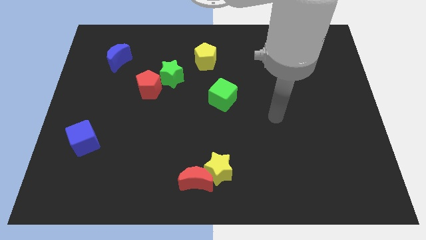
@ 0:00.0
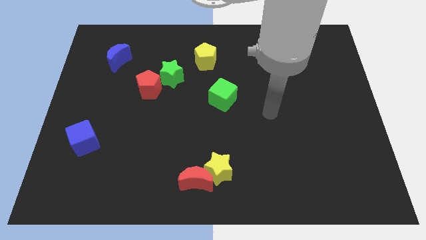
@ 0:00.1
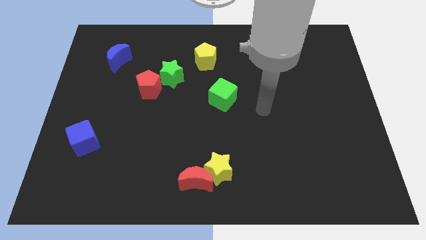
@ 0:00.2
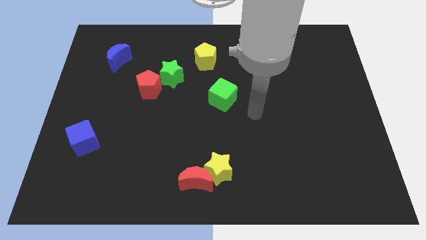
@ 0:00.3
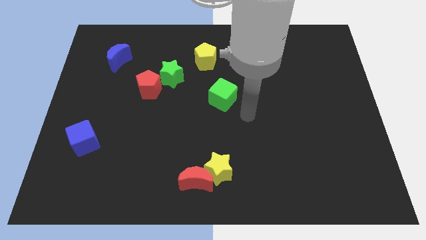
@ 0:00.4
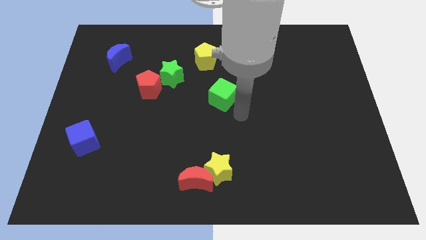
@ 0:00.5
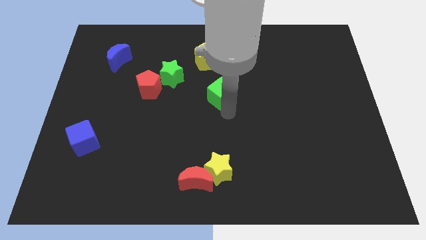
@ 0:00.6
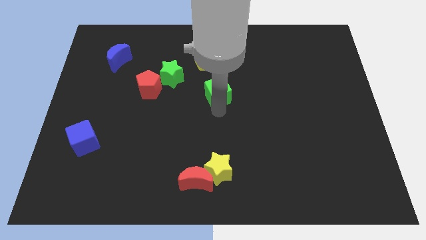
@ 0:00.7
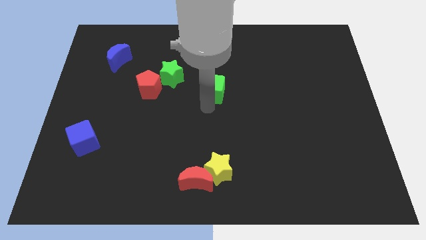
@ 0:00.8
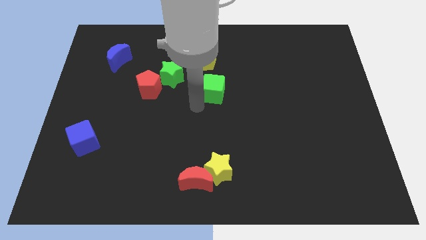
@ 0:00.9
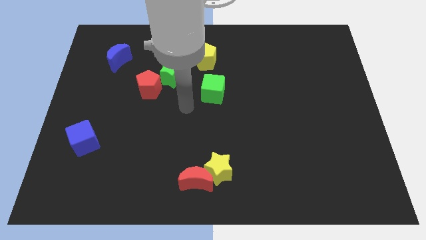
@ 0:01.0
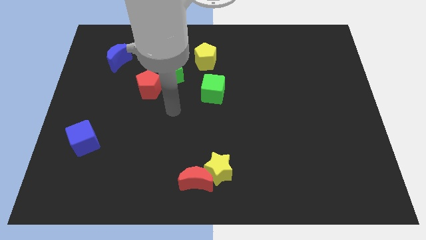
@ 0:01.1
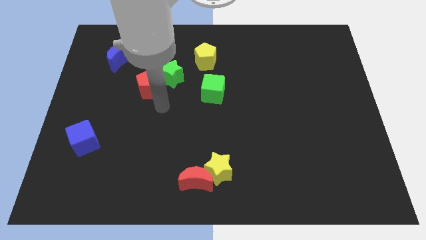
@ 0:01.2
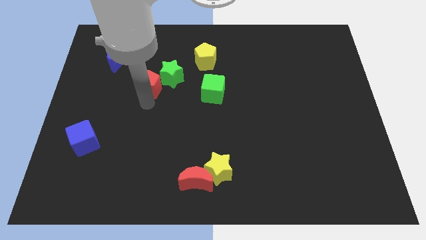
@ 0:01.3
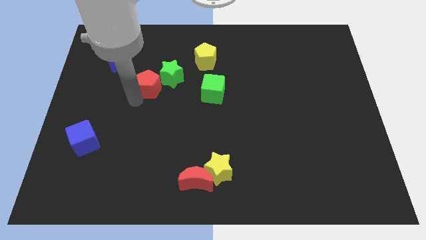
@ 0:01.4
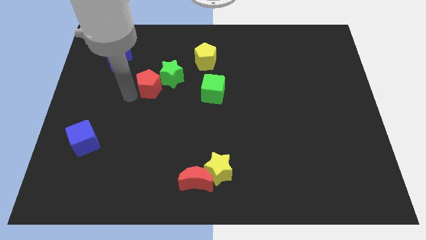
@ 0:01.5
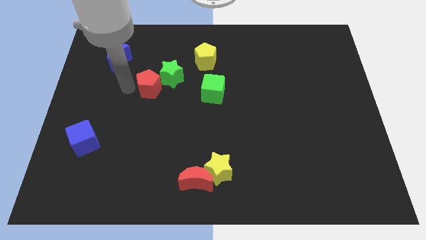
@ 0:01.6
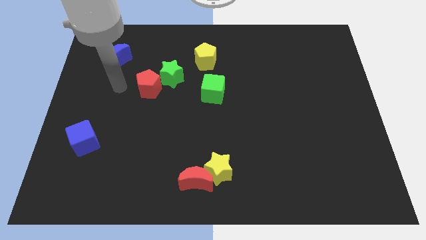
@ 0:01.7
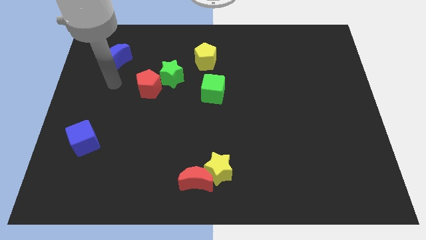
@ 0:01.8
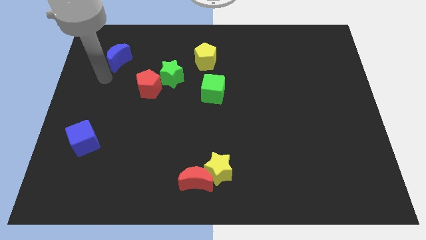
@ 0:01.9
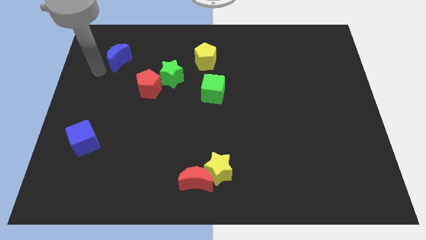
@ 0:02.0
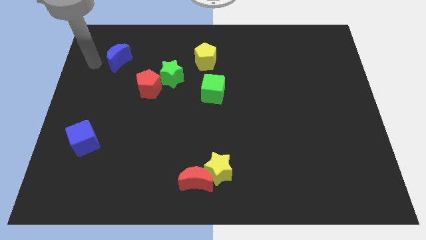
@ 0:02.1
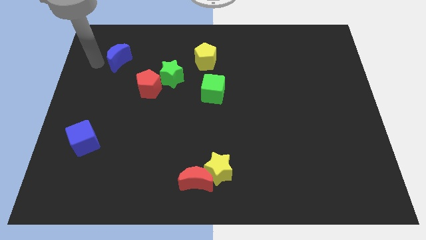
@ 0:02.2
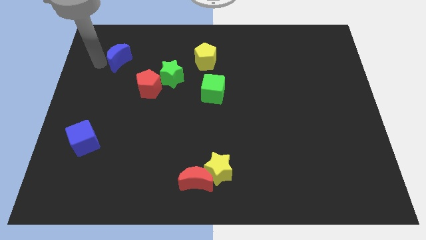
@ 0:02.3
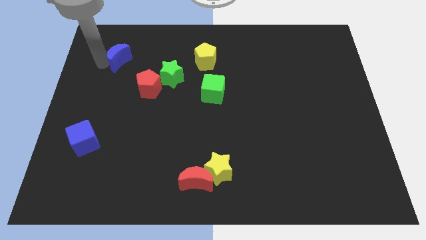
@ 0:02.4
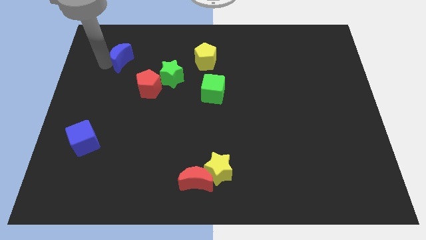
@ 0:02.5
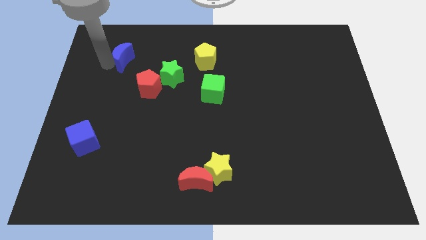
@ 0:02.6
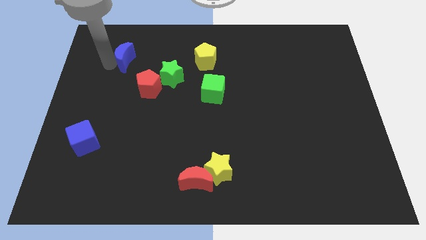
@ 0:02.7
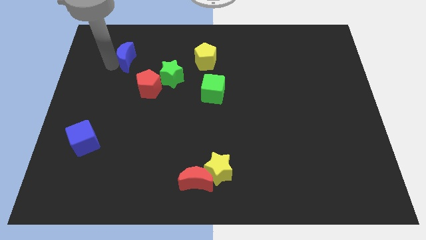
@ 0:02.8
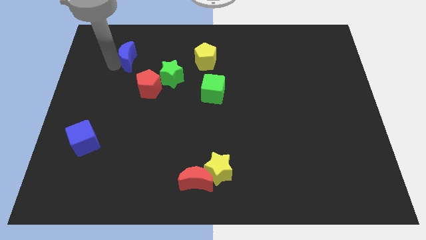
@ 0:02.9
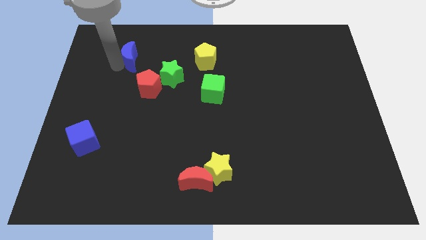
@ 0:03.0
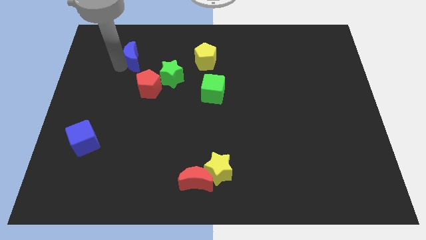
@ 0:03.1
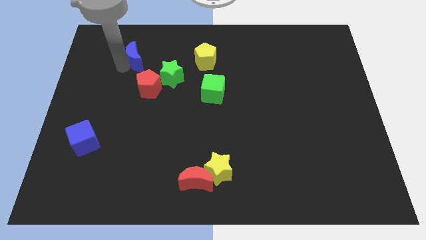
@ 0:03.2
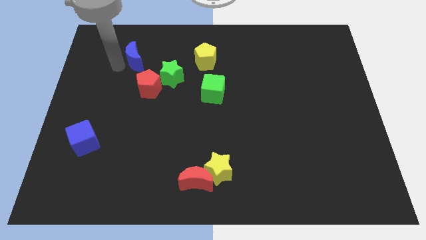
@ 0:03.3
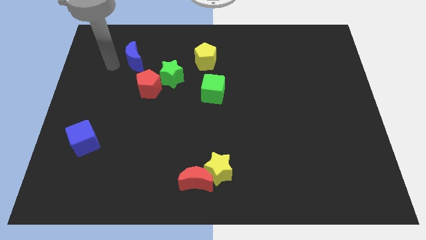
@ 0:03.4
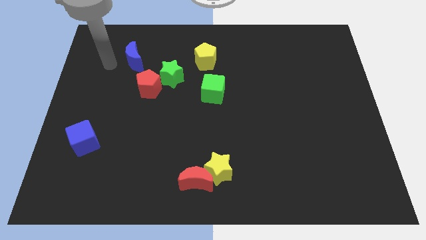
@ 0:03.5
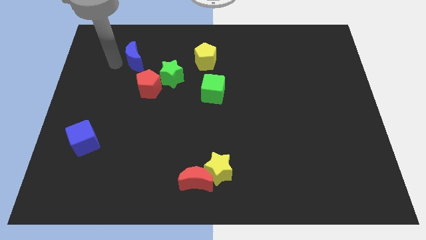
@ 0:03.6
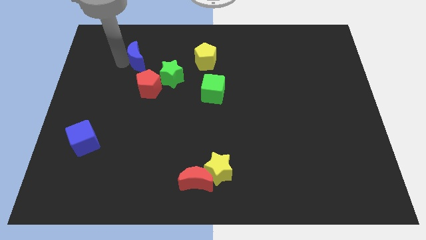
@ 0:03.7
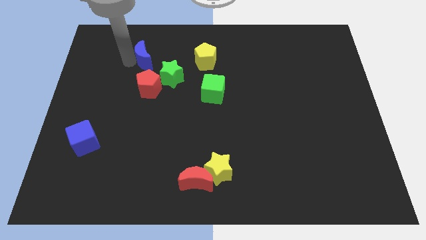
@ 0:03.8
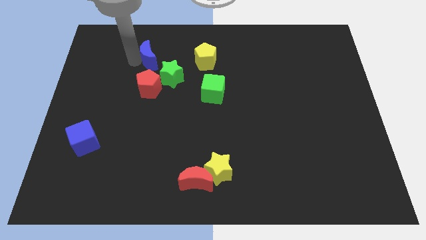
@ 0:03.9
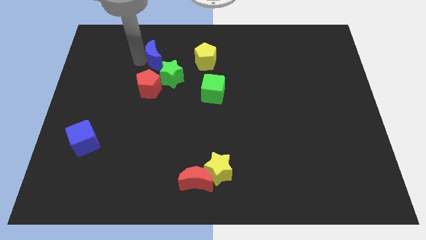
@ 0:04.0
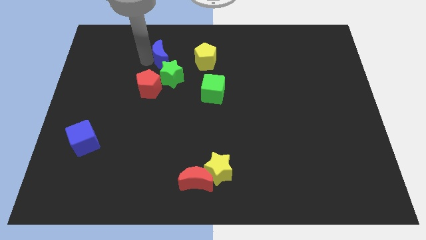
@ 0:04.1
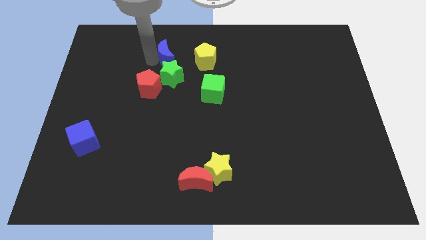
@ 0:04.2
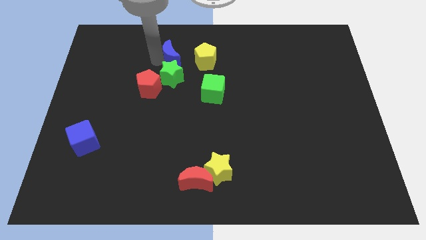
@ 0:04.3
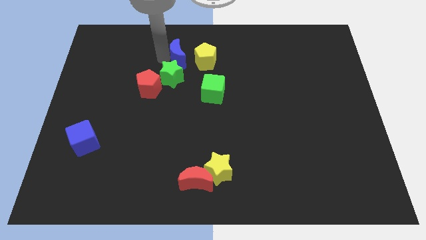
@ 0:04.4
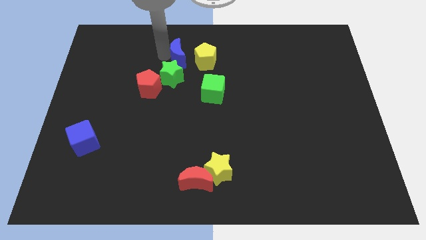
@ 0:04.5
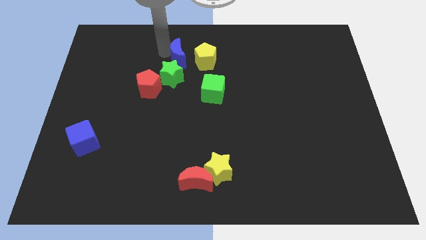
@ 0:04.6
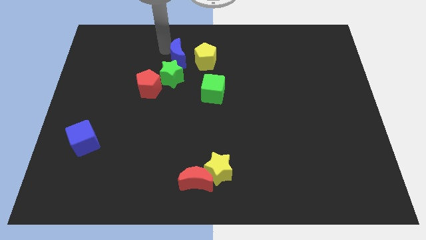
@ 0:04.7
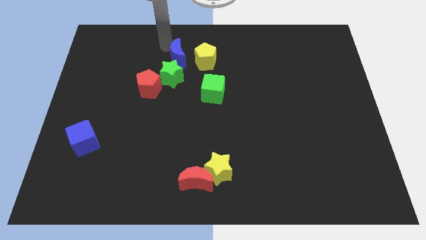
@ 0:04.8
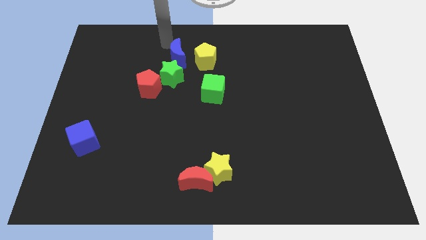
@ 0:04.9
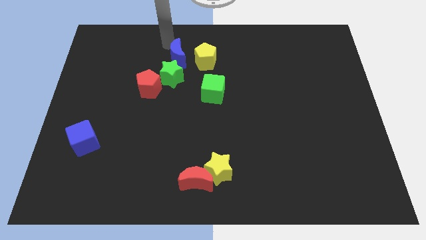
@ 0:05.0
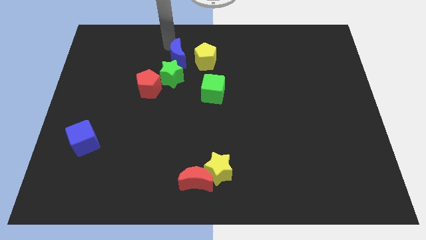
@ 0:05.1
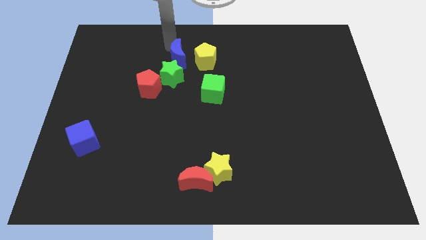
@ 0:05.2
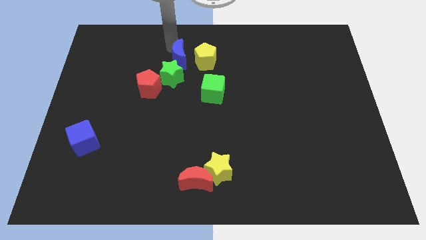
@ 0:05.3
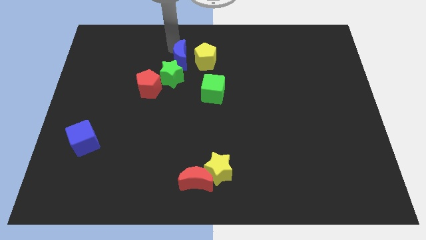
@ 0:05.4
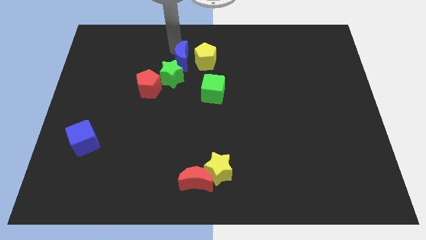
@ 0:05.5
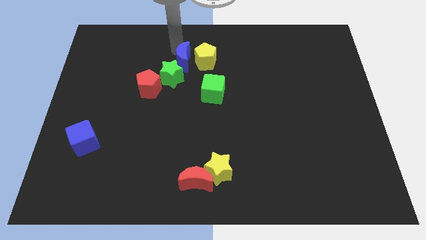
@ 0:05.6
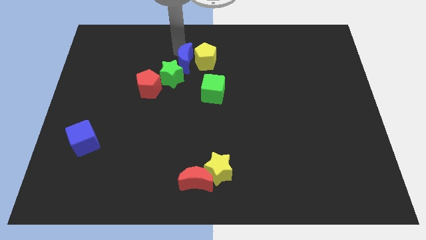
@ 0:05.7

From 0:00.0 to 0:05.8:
move the blue moon to the top left of the green cube
